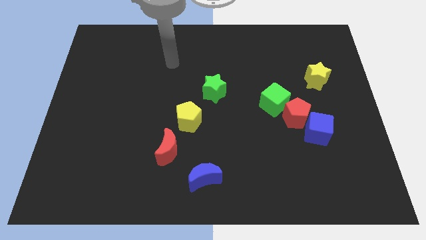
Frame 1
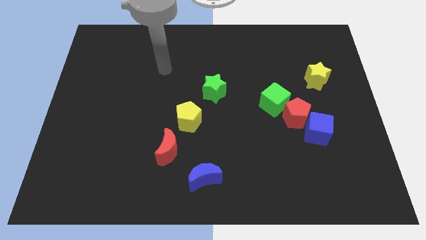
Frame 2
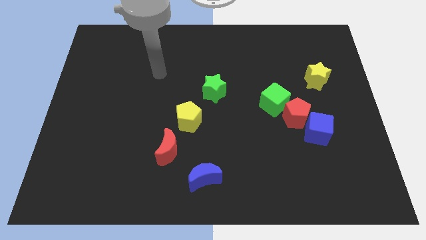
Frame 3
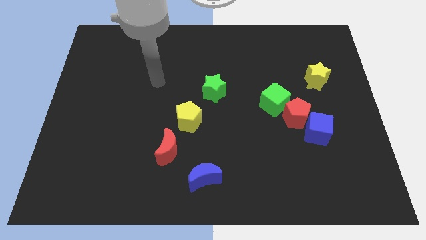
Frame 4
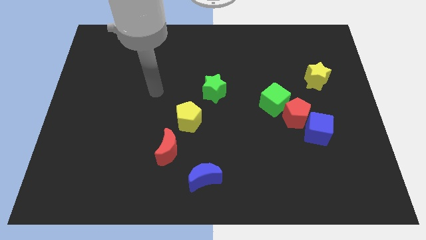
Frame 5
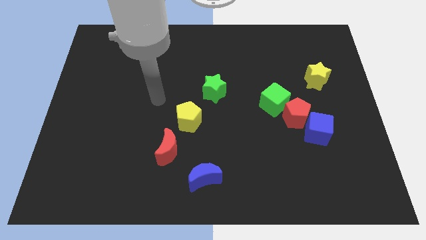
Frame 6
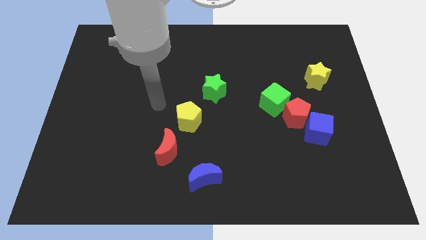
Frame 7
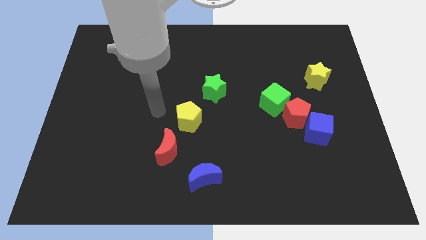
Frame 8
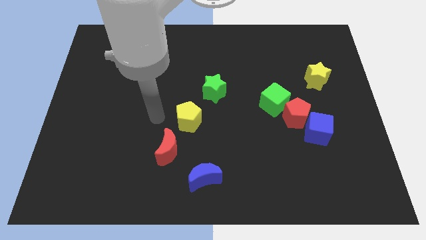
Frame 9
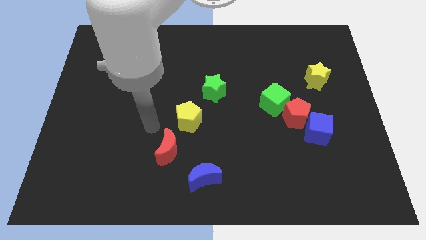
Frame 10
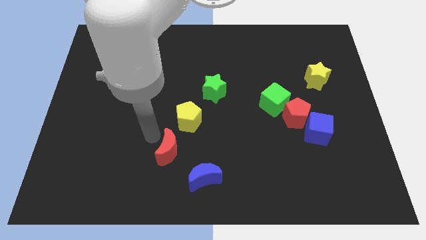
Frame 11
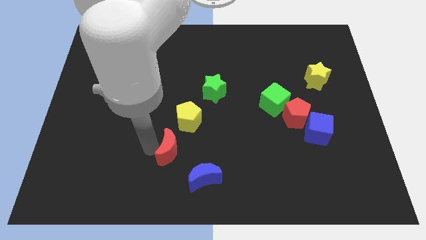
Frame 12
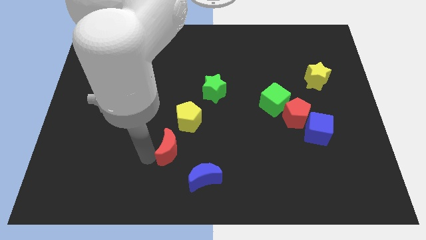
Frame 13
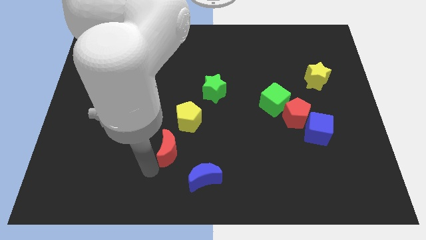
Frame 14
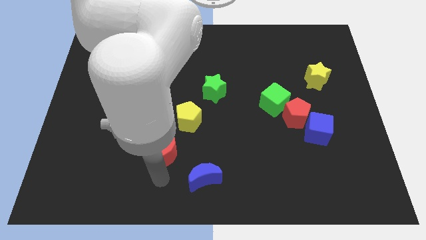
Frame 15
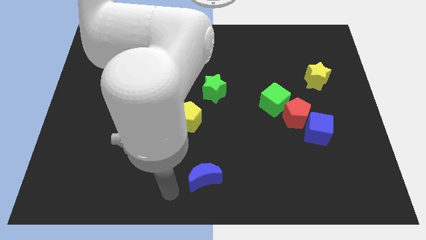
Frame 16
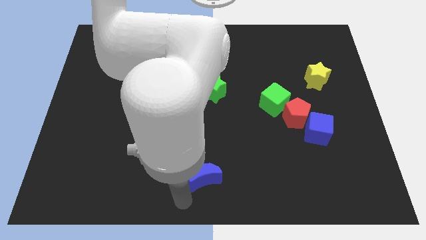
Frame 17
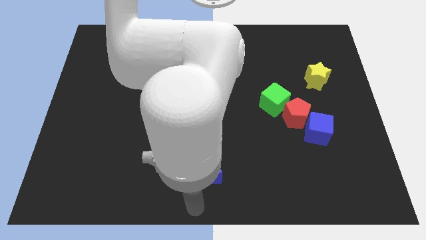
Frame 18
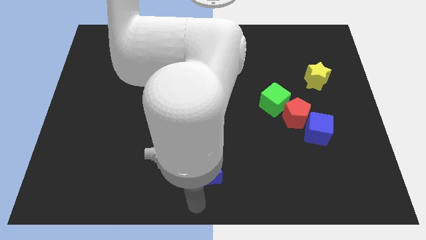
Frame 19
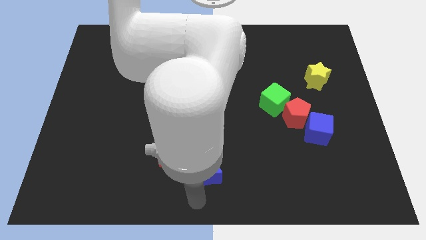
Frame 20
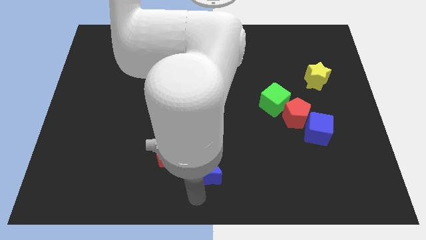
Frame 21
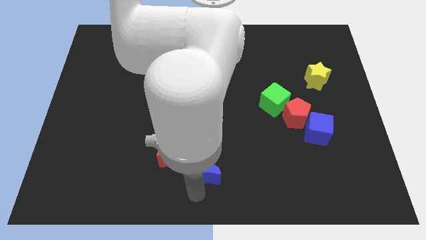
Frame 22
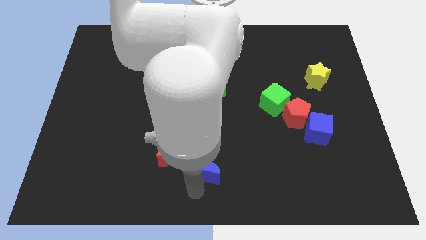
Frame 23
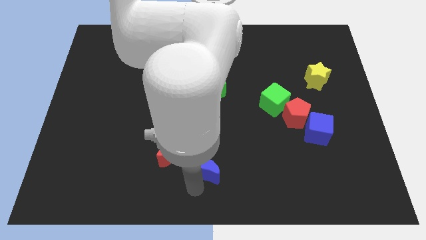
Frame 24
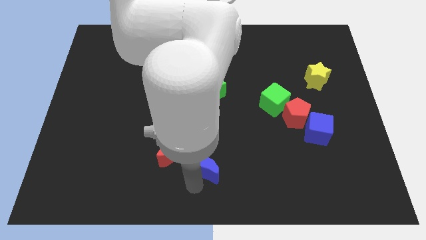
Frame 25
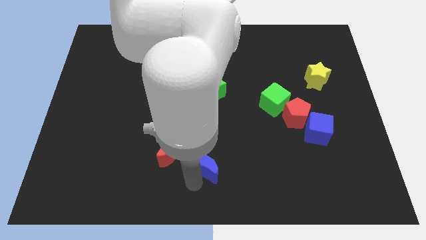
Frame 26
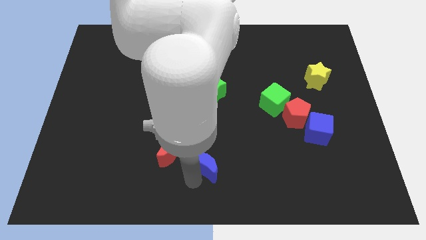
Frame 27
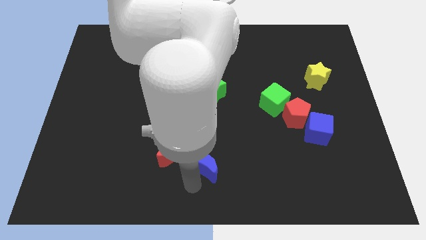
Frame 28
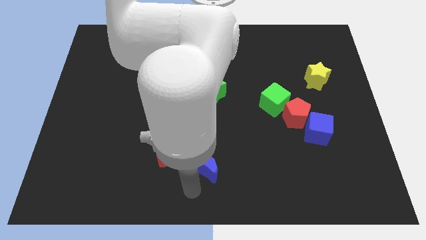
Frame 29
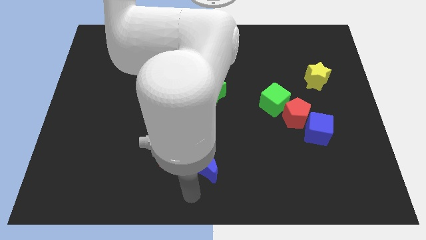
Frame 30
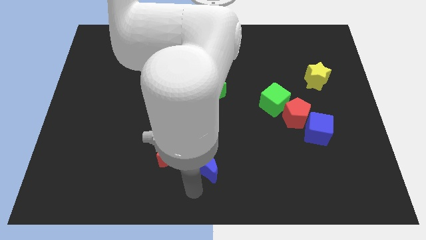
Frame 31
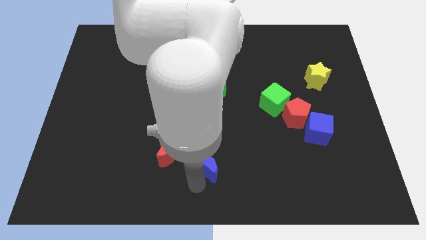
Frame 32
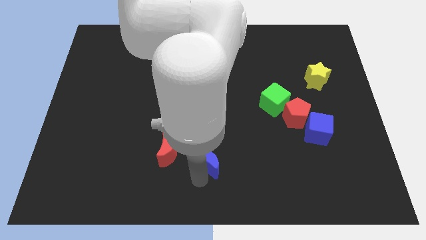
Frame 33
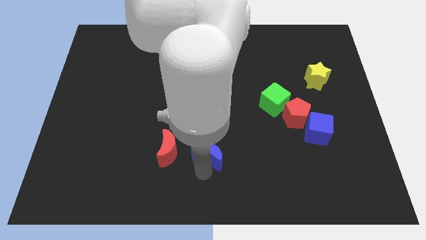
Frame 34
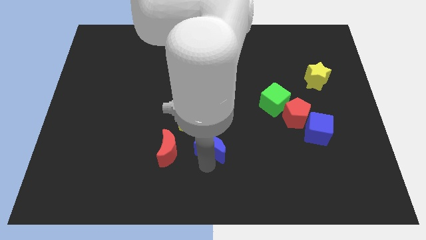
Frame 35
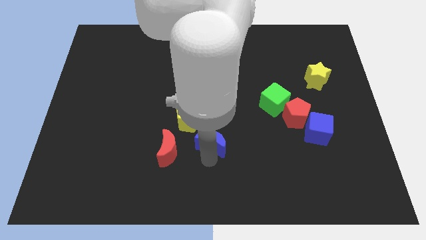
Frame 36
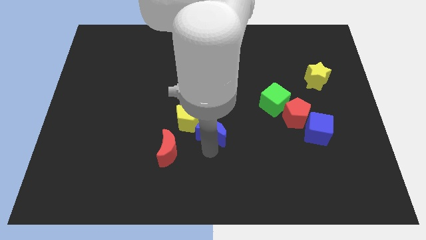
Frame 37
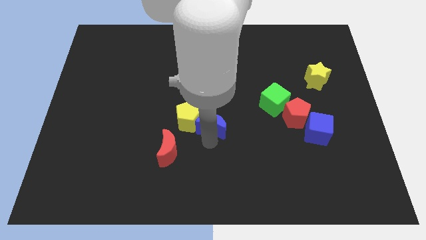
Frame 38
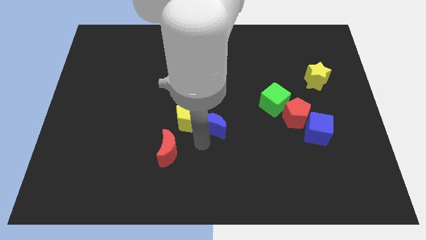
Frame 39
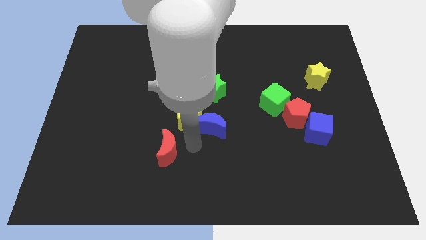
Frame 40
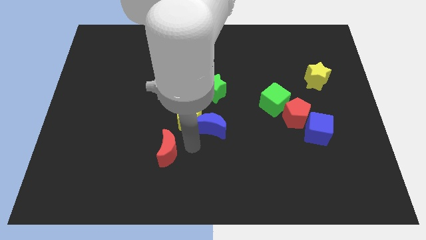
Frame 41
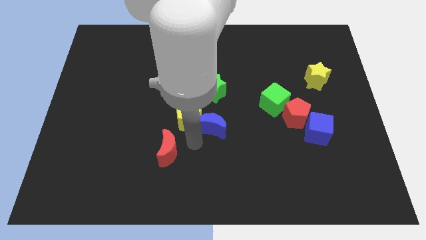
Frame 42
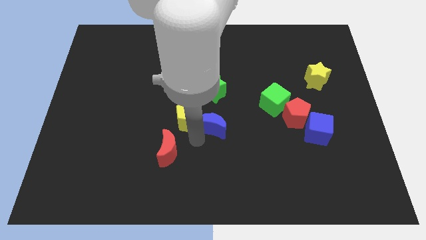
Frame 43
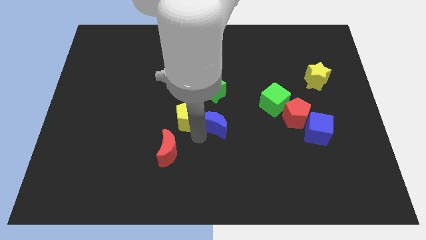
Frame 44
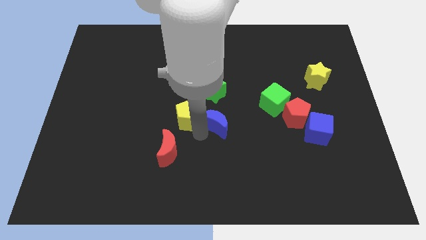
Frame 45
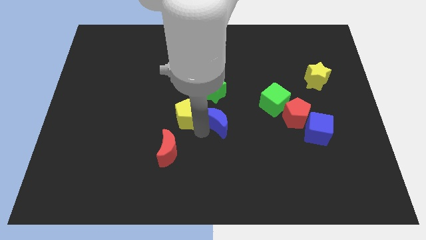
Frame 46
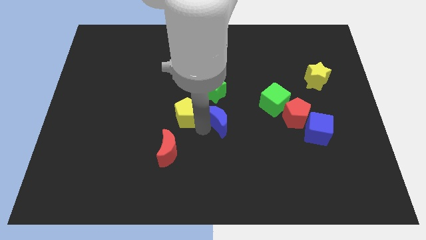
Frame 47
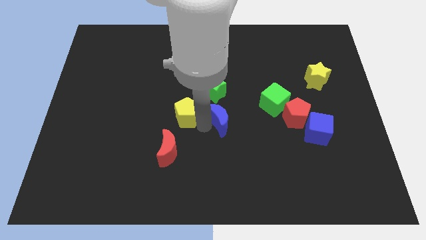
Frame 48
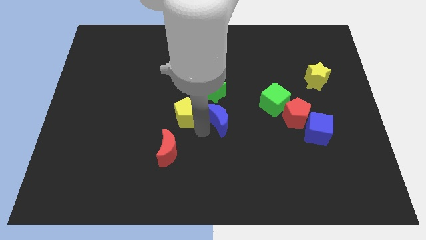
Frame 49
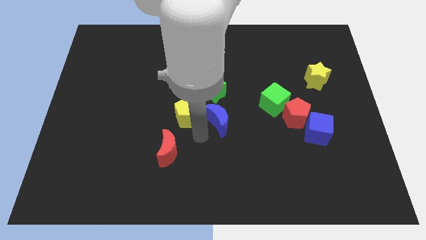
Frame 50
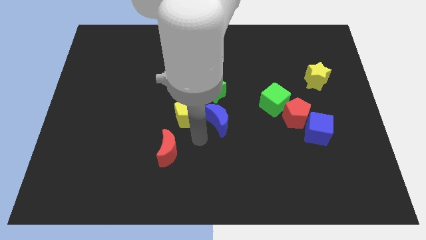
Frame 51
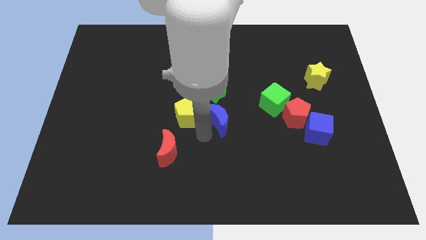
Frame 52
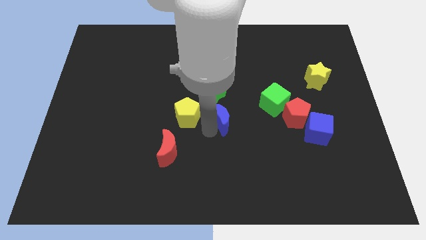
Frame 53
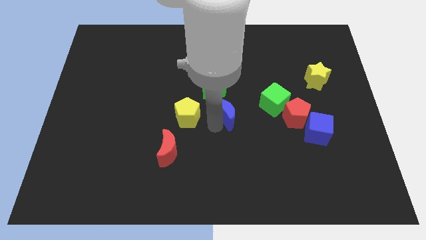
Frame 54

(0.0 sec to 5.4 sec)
put the blue moon diagonally down and to the right of the green star

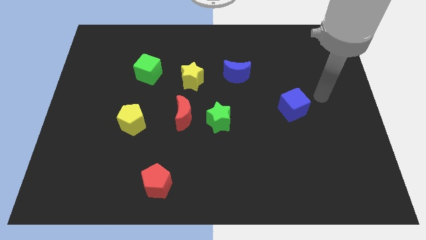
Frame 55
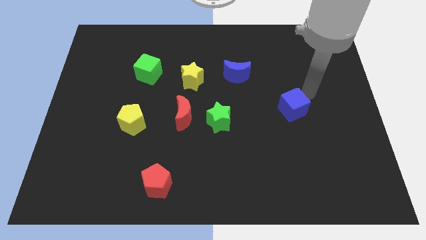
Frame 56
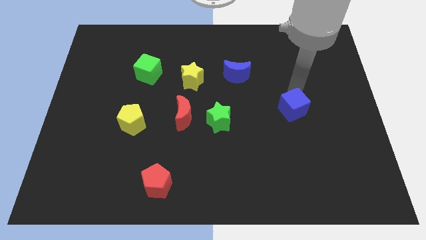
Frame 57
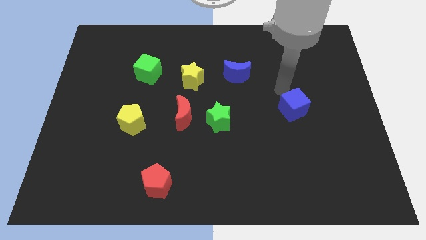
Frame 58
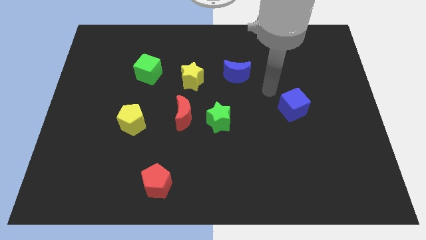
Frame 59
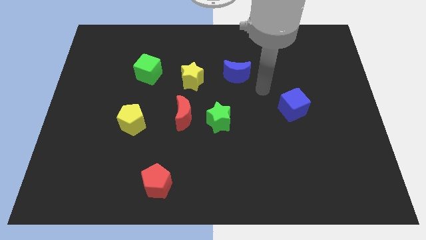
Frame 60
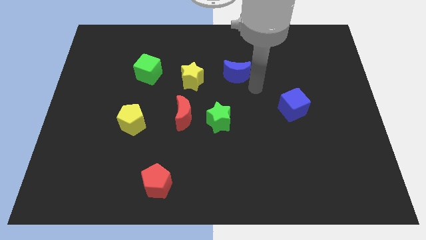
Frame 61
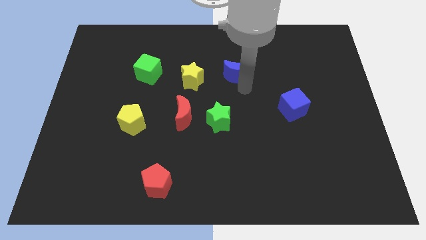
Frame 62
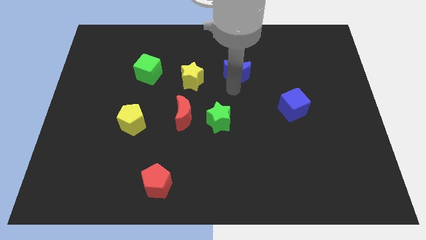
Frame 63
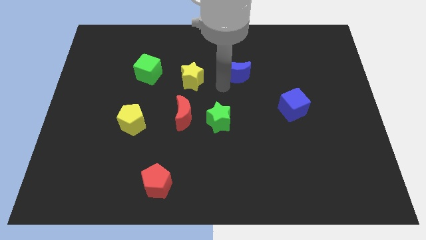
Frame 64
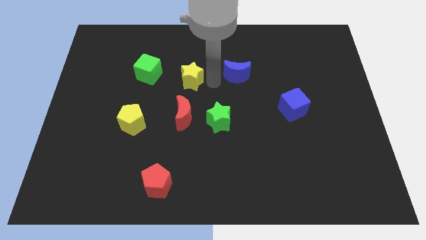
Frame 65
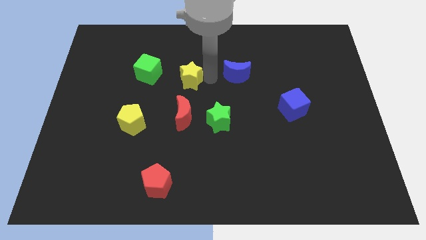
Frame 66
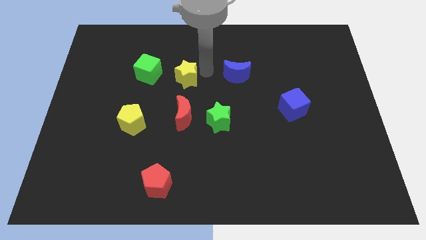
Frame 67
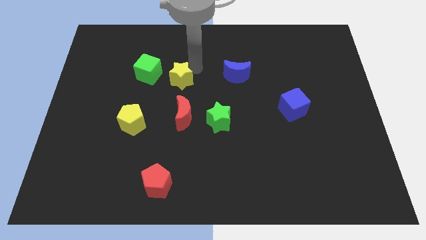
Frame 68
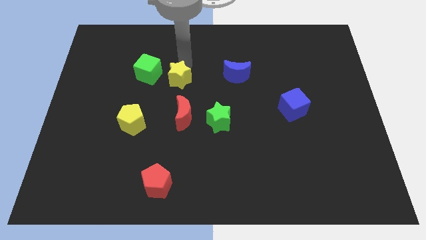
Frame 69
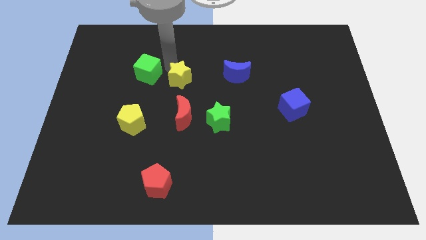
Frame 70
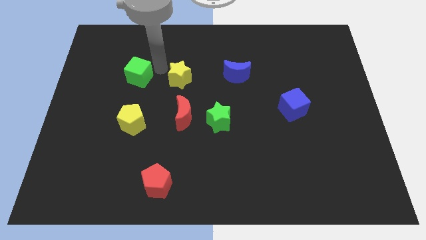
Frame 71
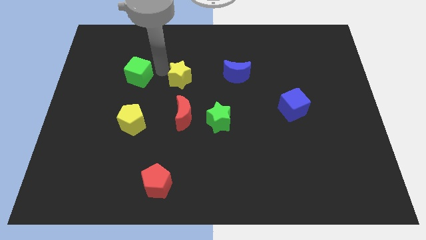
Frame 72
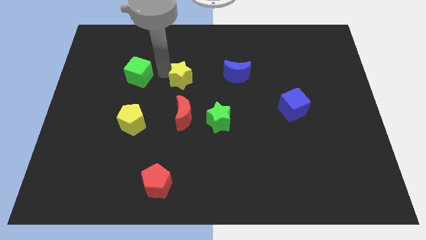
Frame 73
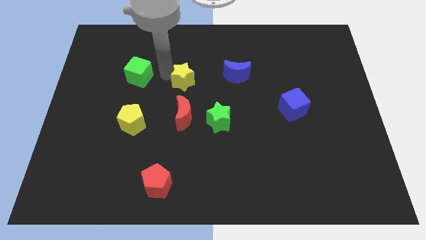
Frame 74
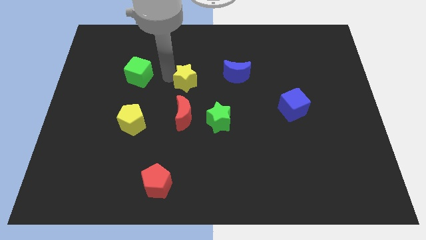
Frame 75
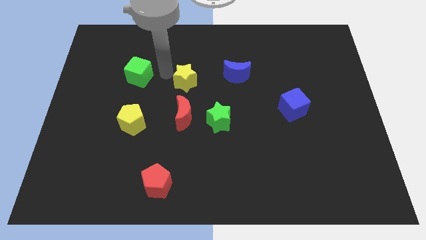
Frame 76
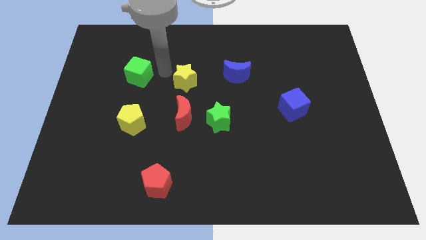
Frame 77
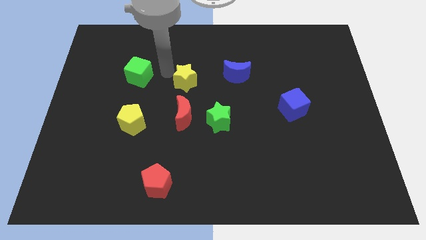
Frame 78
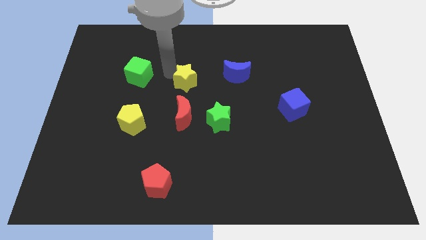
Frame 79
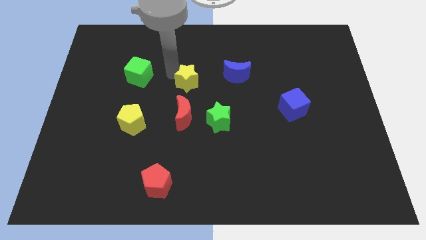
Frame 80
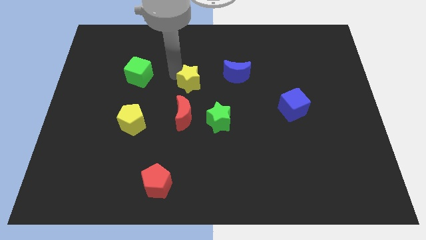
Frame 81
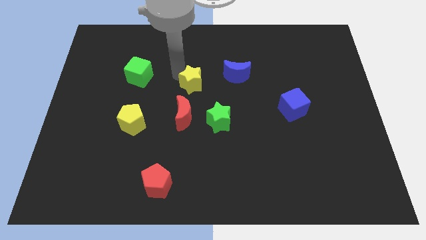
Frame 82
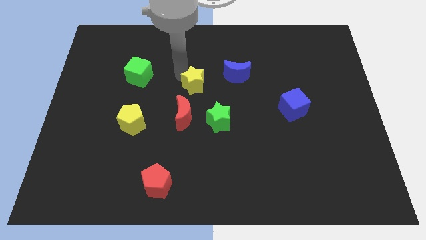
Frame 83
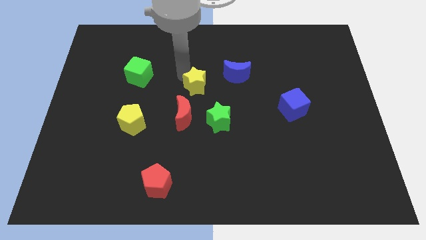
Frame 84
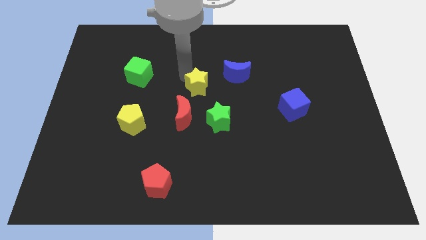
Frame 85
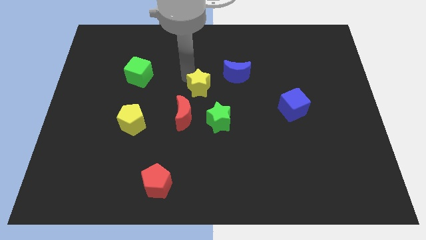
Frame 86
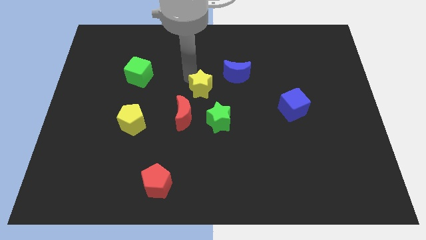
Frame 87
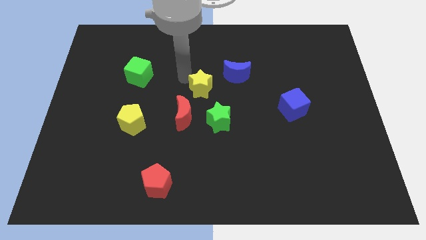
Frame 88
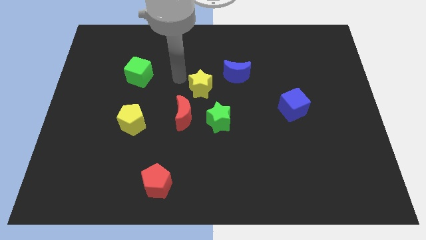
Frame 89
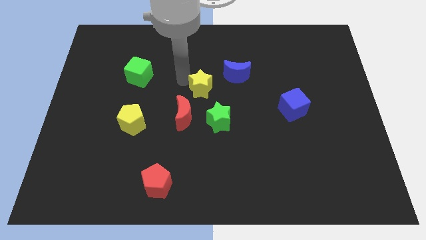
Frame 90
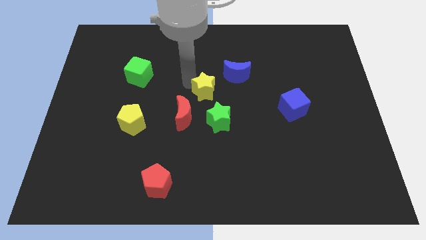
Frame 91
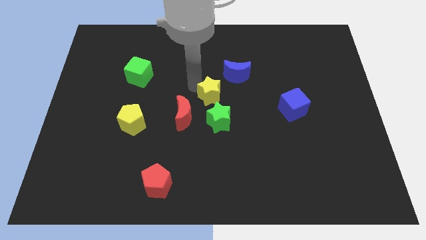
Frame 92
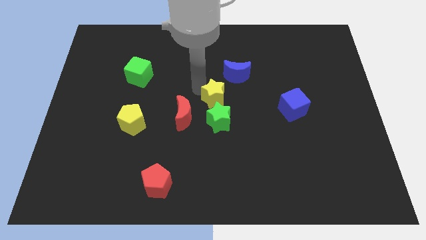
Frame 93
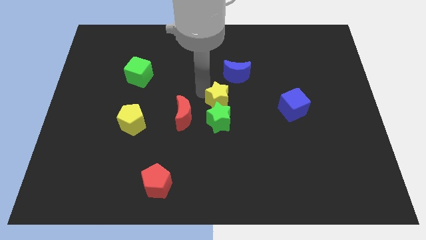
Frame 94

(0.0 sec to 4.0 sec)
slide the yellow star right of the red moon
